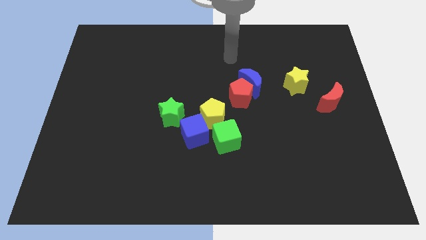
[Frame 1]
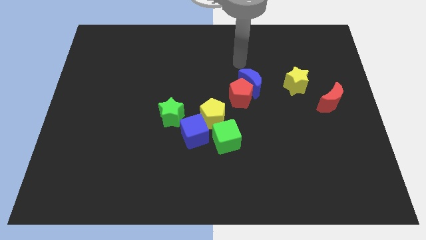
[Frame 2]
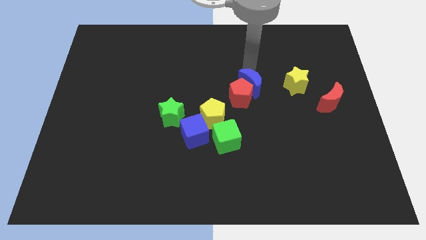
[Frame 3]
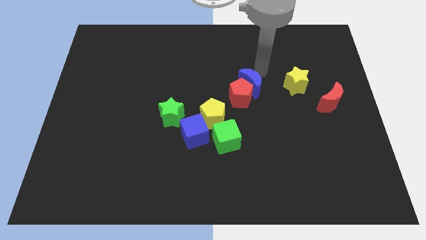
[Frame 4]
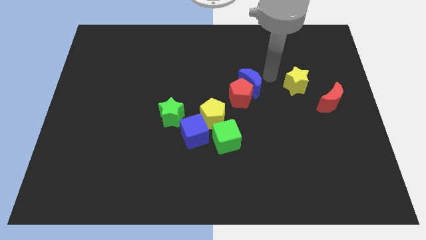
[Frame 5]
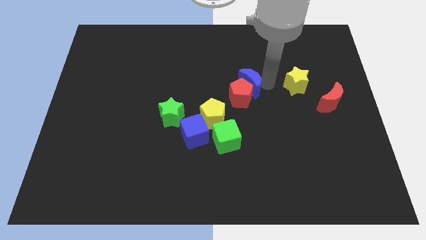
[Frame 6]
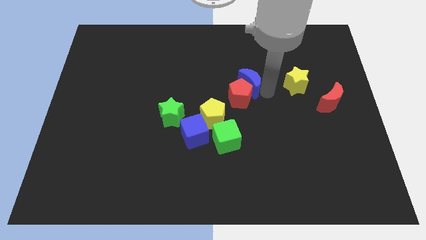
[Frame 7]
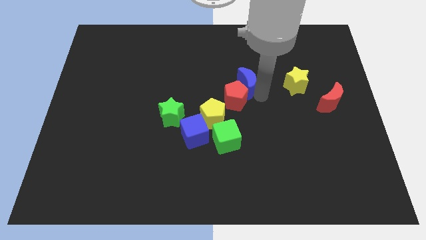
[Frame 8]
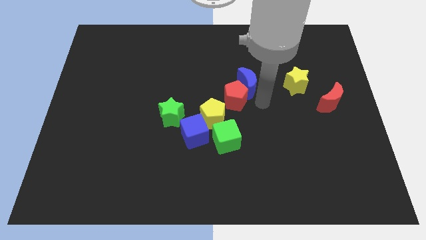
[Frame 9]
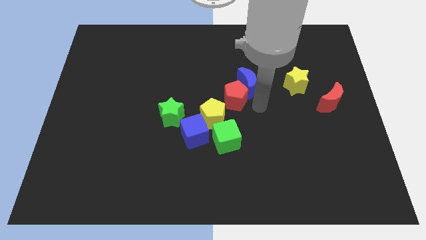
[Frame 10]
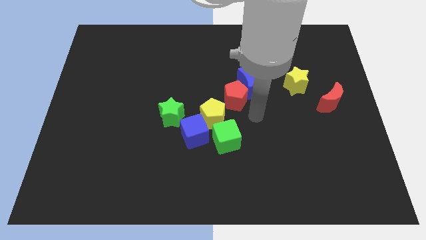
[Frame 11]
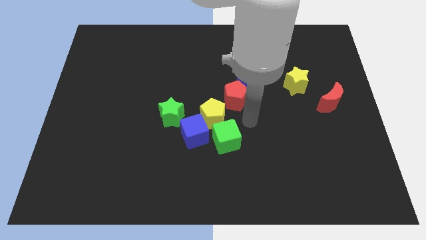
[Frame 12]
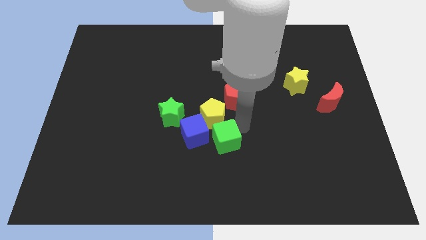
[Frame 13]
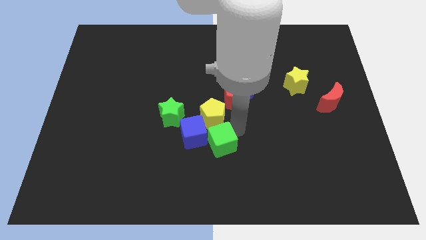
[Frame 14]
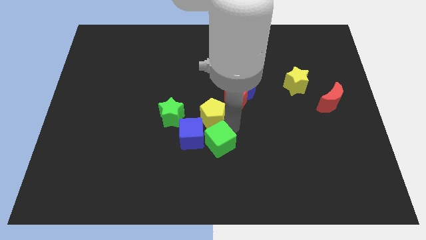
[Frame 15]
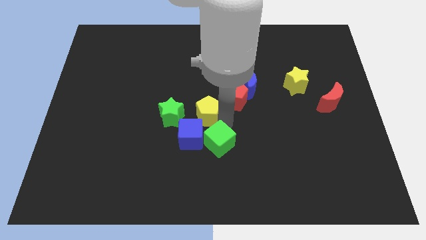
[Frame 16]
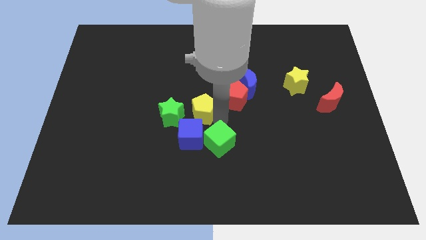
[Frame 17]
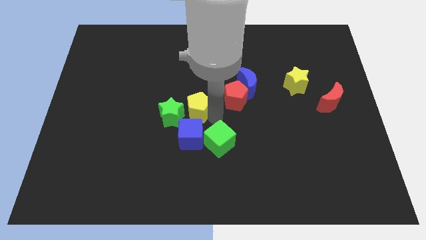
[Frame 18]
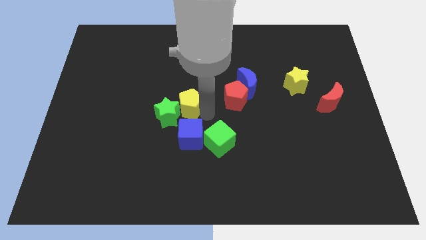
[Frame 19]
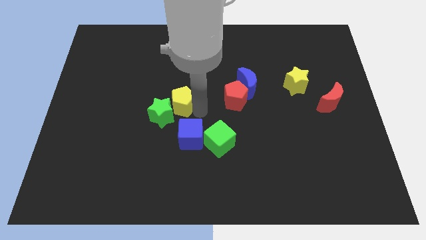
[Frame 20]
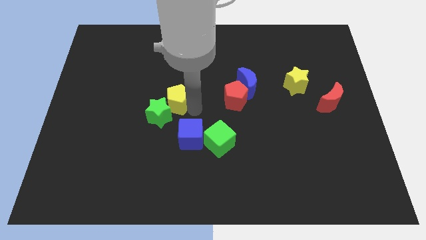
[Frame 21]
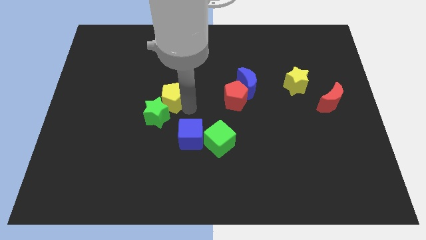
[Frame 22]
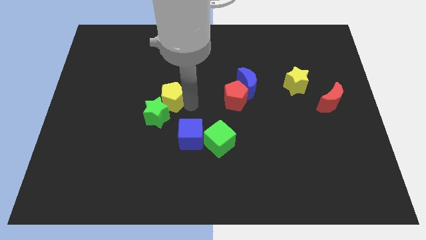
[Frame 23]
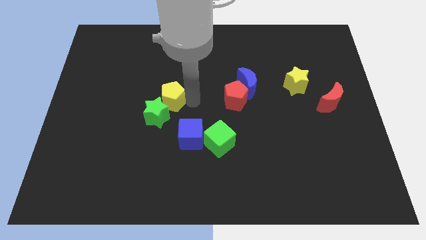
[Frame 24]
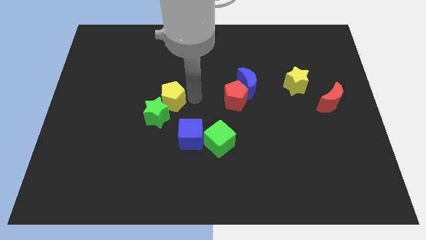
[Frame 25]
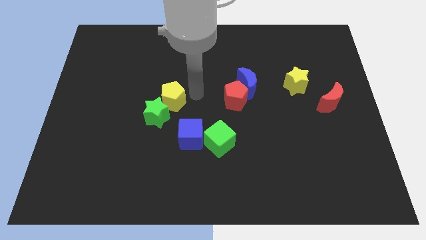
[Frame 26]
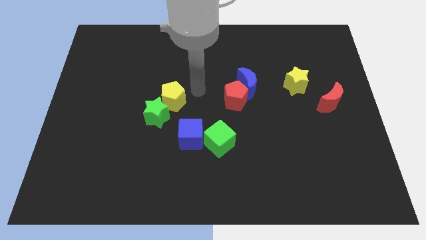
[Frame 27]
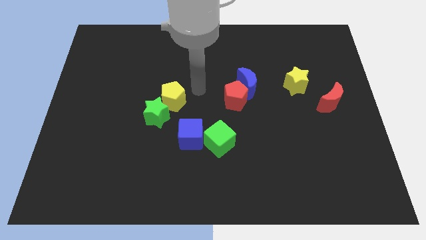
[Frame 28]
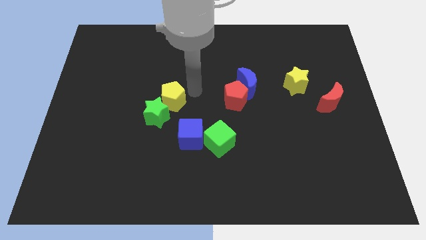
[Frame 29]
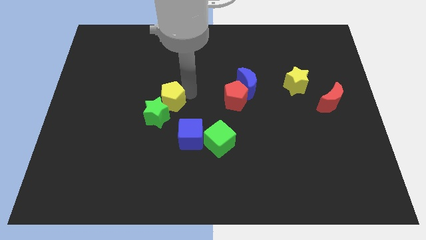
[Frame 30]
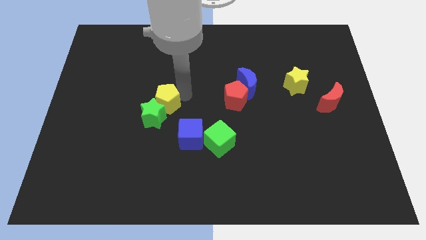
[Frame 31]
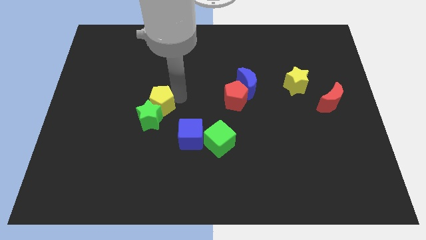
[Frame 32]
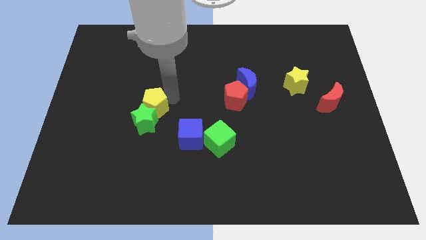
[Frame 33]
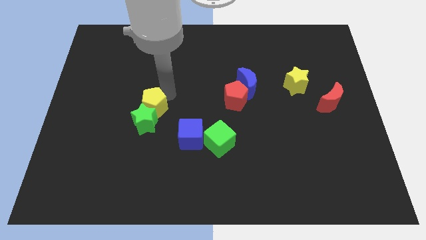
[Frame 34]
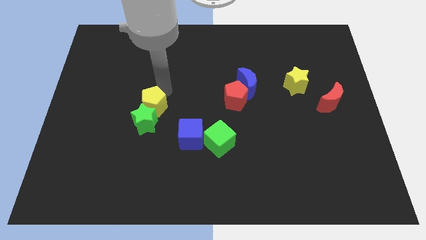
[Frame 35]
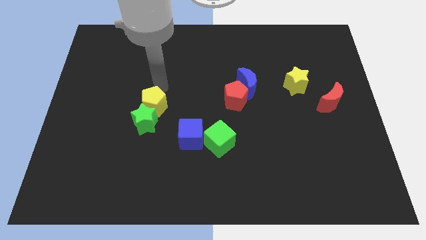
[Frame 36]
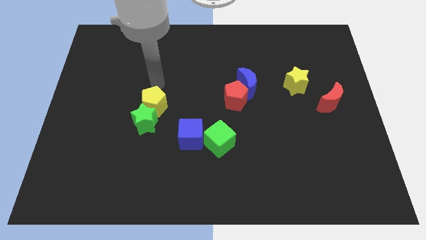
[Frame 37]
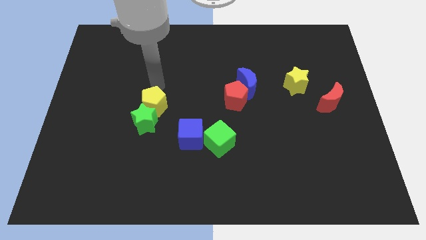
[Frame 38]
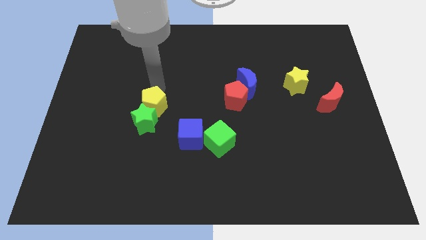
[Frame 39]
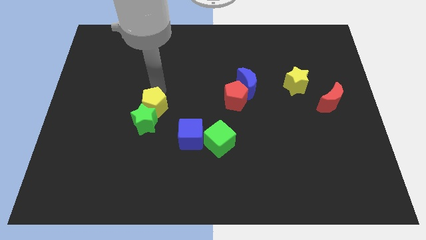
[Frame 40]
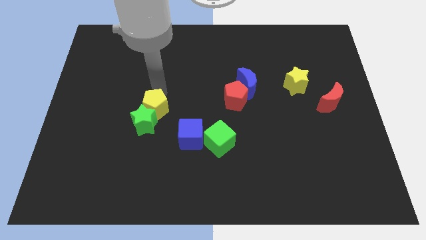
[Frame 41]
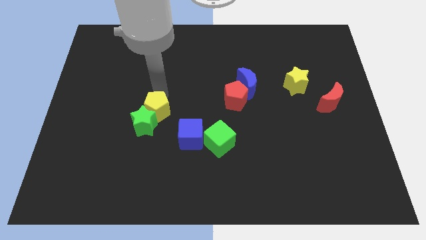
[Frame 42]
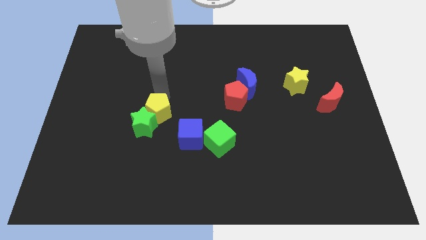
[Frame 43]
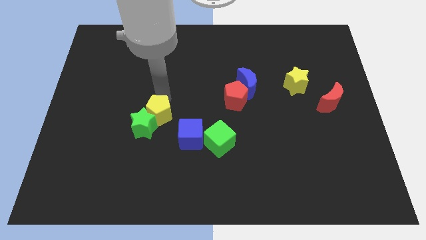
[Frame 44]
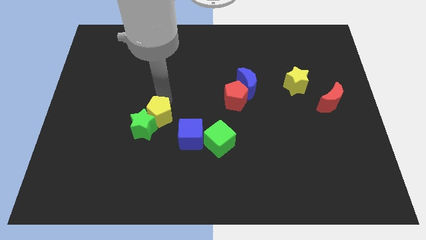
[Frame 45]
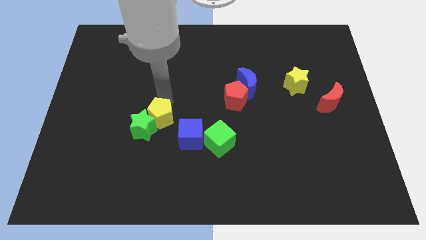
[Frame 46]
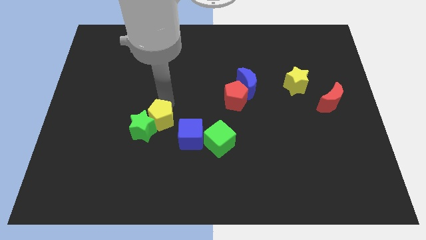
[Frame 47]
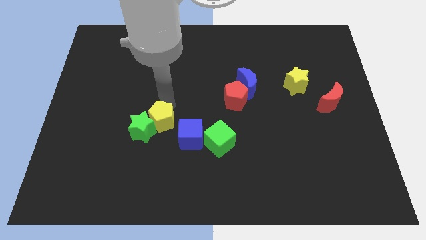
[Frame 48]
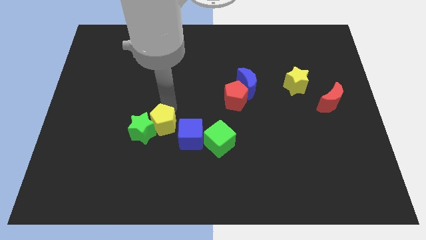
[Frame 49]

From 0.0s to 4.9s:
slide the yellow pentagon a little bit downwards and then left

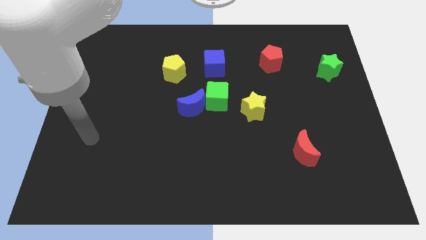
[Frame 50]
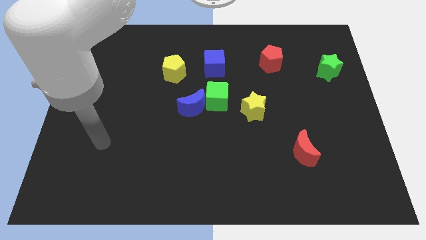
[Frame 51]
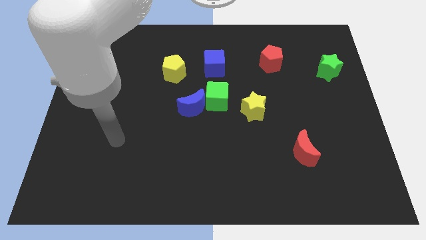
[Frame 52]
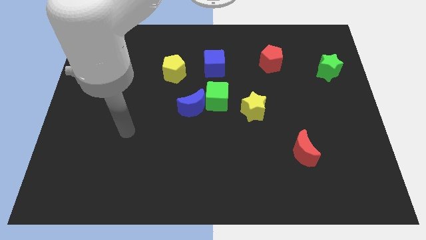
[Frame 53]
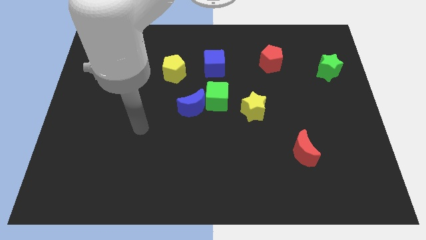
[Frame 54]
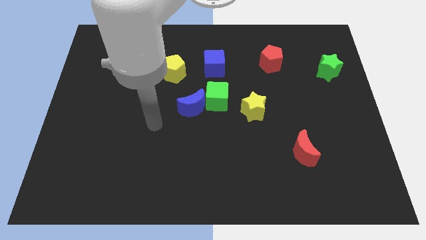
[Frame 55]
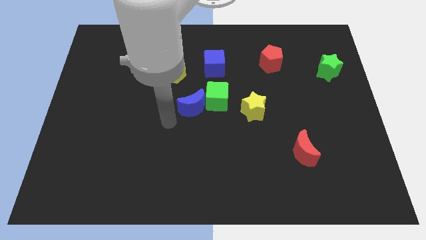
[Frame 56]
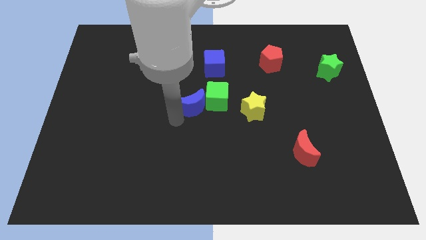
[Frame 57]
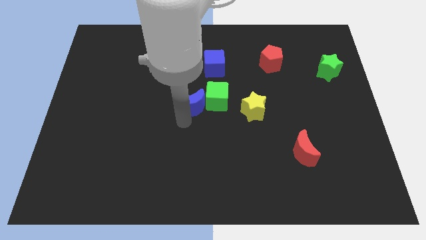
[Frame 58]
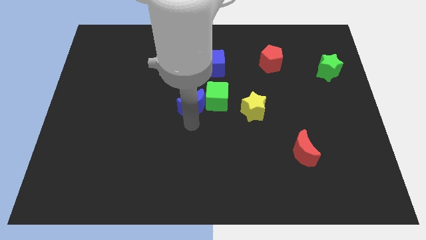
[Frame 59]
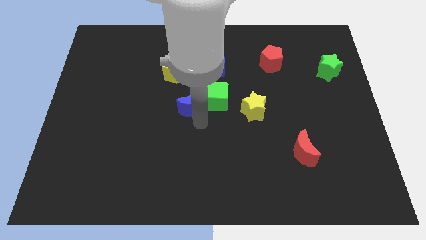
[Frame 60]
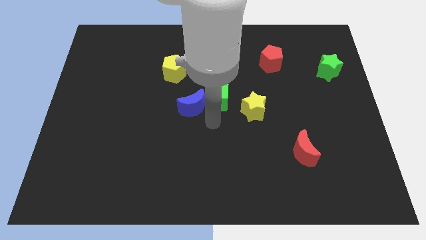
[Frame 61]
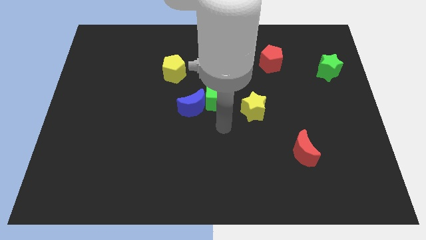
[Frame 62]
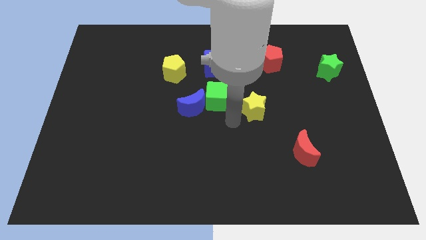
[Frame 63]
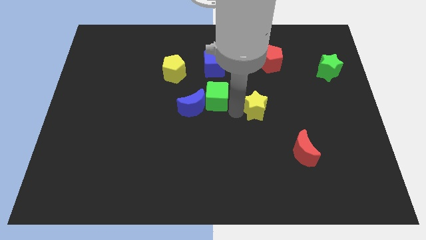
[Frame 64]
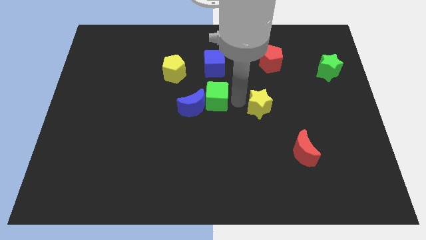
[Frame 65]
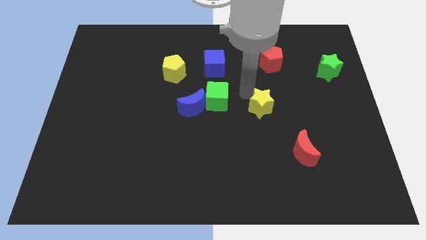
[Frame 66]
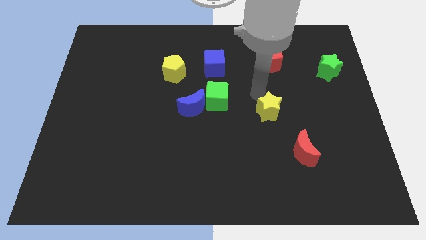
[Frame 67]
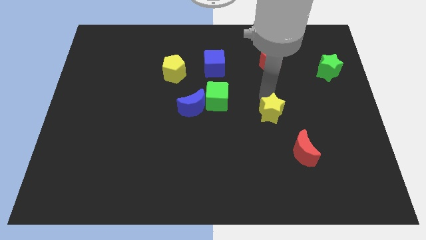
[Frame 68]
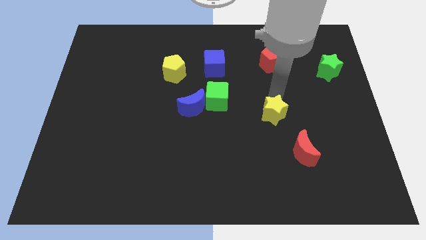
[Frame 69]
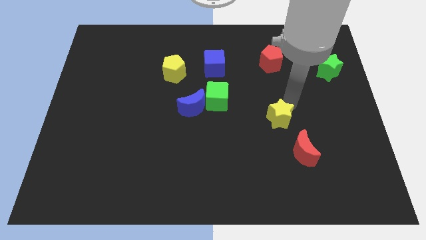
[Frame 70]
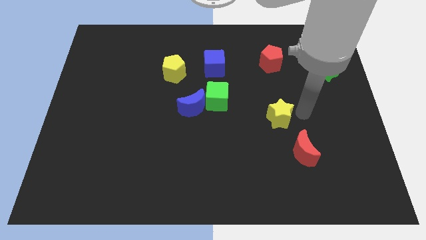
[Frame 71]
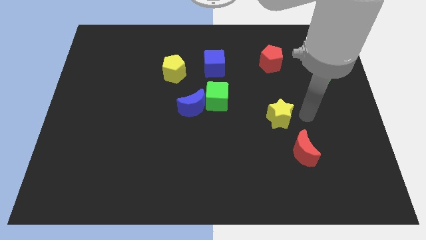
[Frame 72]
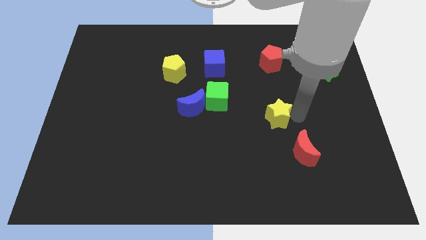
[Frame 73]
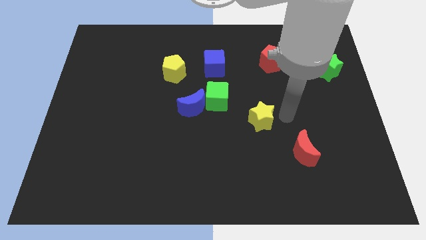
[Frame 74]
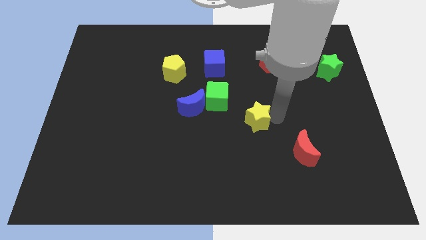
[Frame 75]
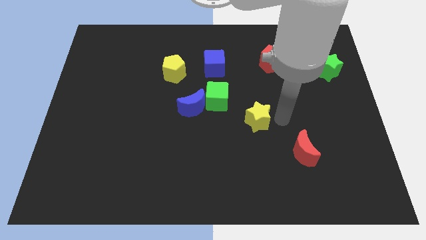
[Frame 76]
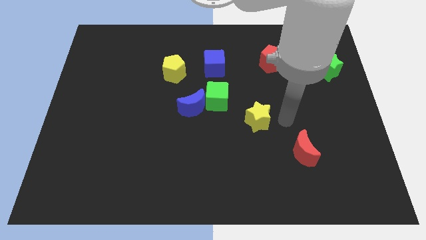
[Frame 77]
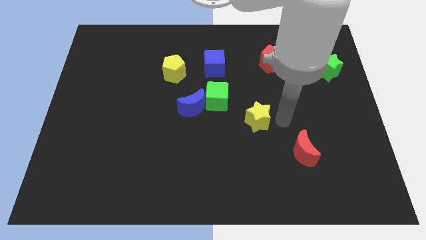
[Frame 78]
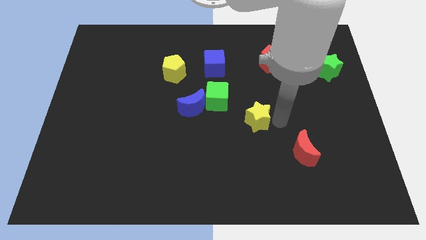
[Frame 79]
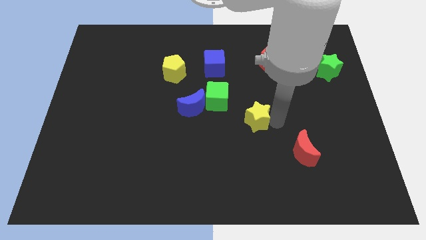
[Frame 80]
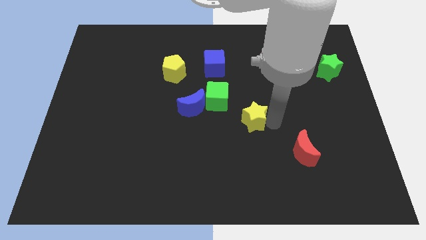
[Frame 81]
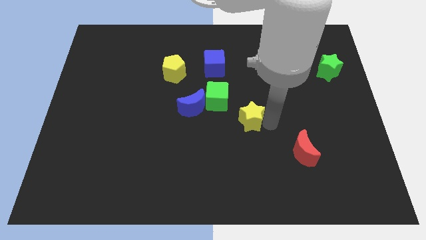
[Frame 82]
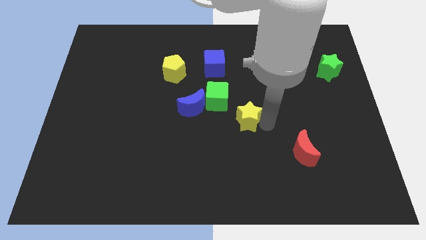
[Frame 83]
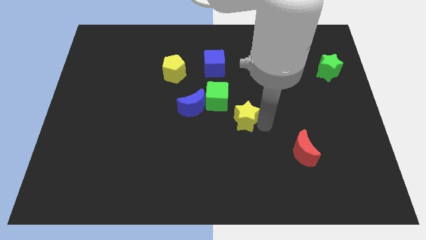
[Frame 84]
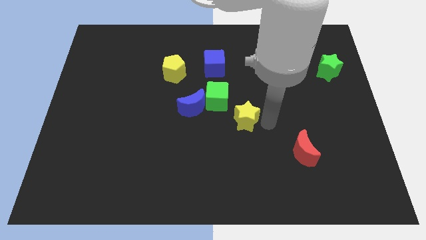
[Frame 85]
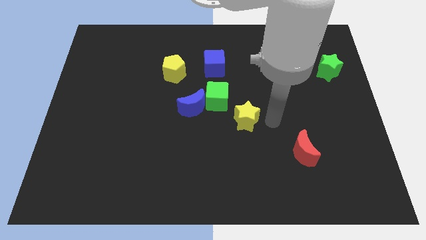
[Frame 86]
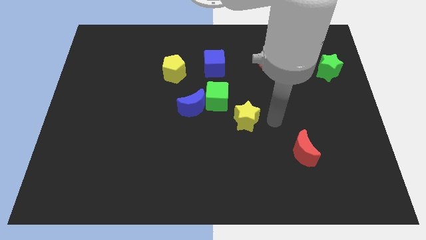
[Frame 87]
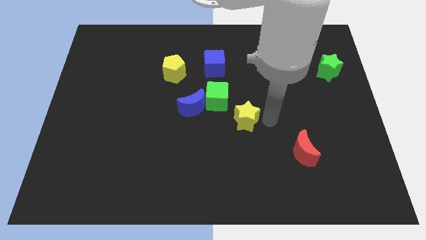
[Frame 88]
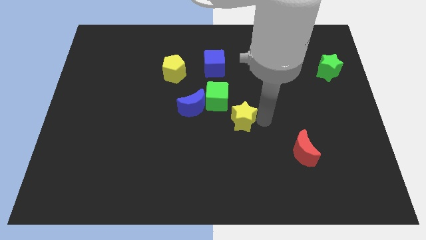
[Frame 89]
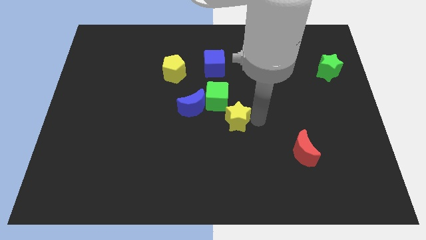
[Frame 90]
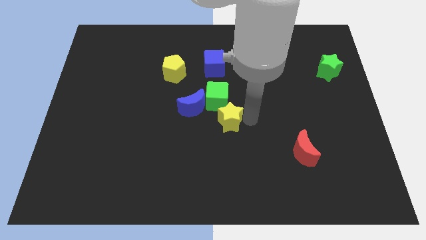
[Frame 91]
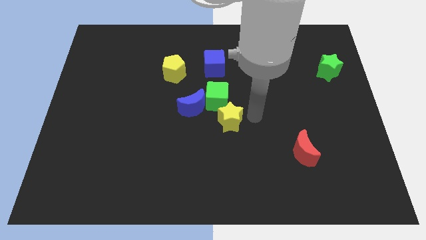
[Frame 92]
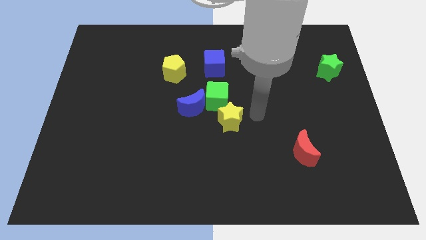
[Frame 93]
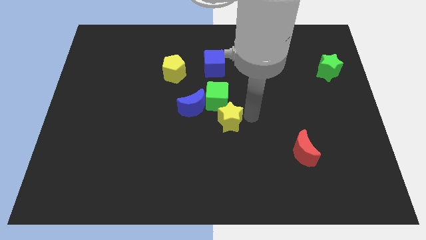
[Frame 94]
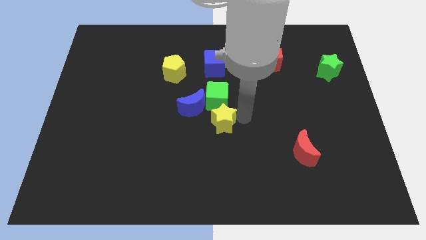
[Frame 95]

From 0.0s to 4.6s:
push the yellow star left somewhat
